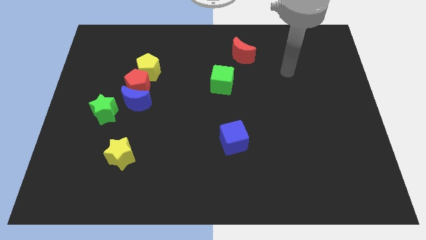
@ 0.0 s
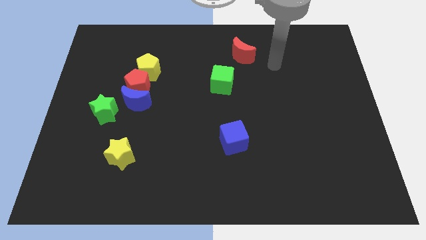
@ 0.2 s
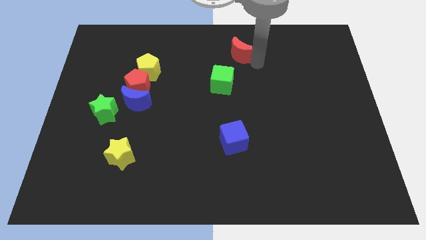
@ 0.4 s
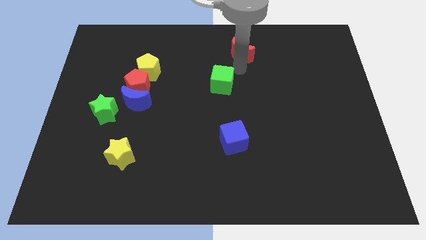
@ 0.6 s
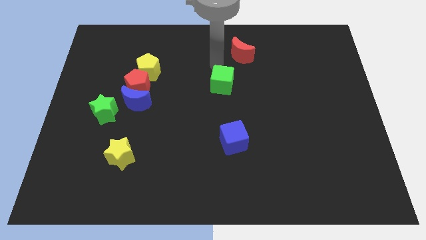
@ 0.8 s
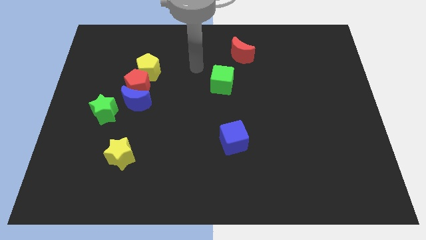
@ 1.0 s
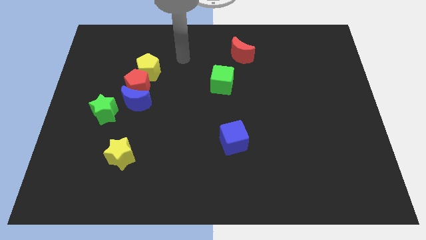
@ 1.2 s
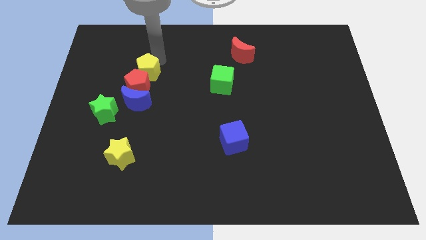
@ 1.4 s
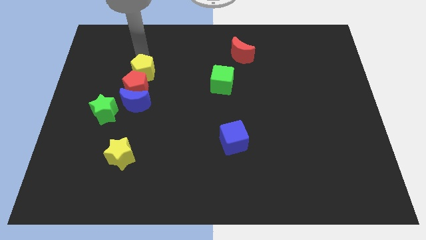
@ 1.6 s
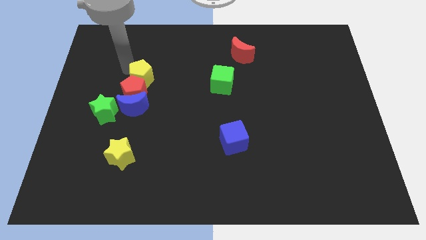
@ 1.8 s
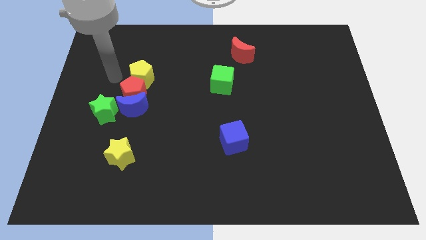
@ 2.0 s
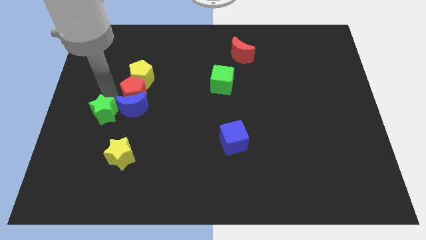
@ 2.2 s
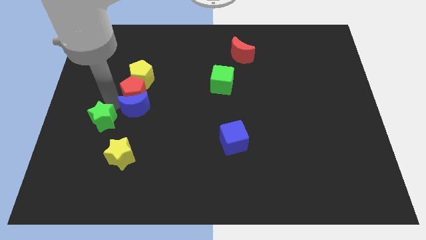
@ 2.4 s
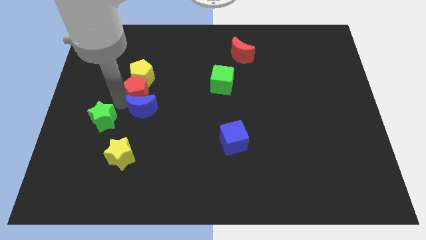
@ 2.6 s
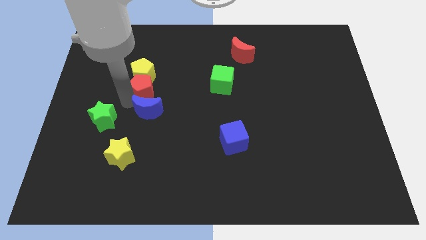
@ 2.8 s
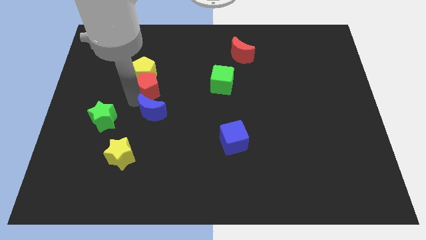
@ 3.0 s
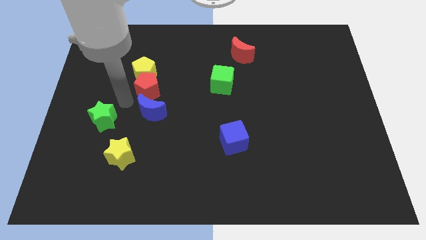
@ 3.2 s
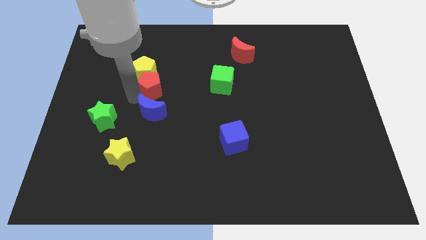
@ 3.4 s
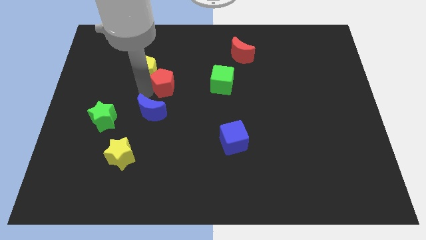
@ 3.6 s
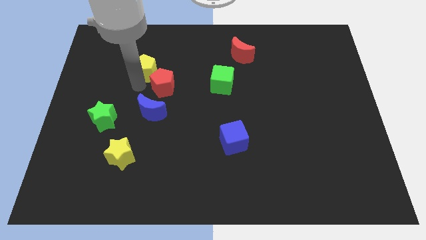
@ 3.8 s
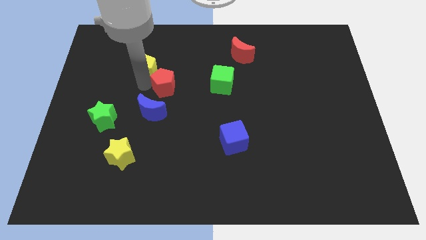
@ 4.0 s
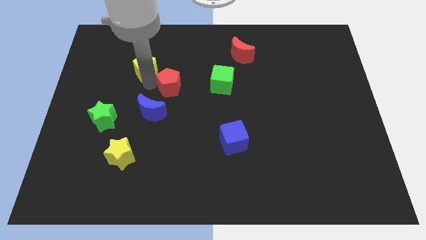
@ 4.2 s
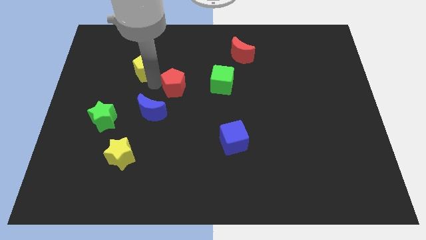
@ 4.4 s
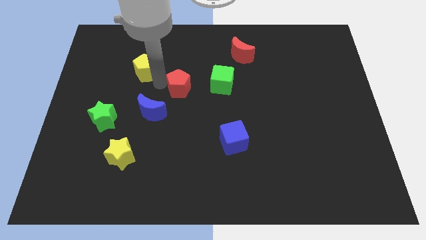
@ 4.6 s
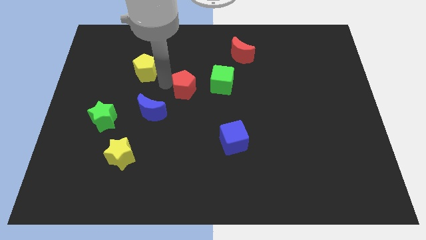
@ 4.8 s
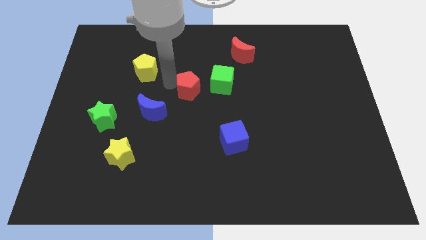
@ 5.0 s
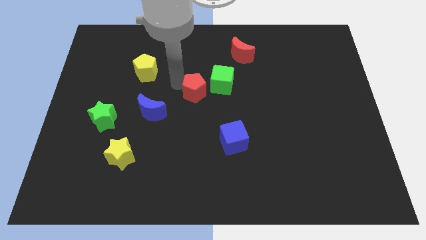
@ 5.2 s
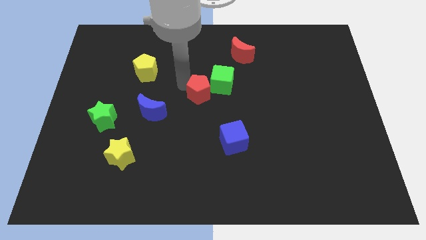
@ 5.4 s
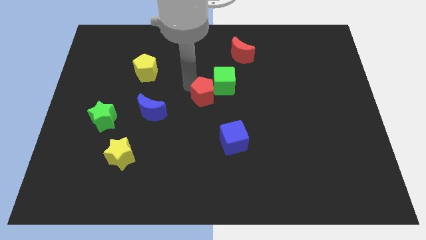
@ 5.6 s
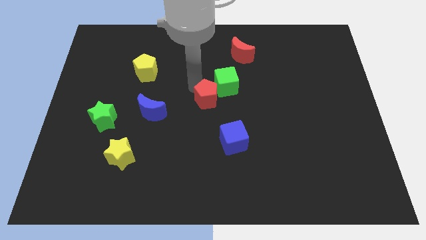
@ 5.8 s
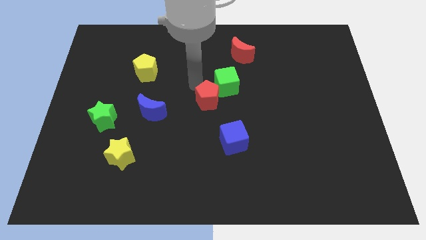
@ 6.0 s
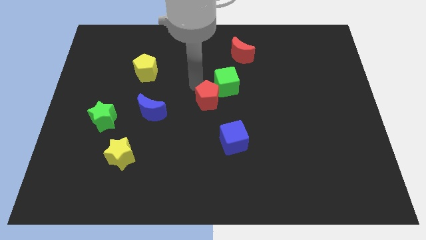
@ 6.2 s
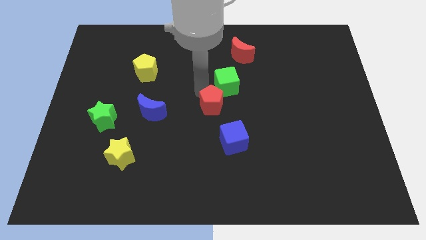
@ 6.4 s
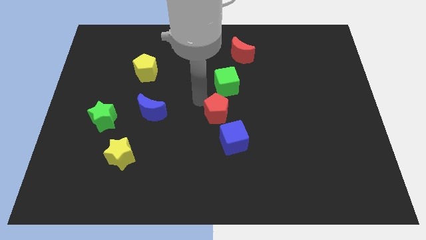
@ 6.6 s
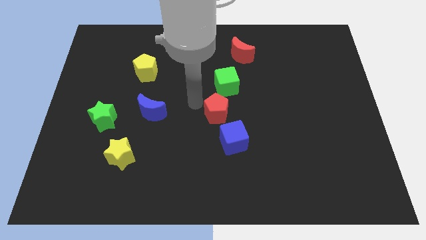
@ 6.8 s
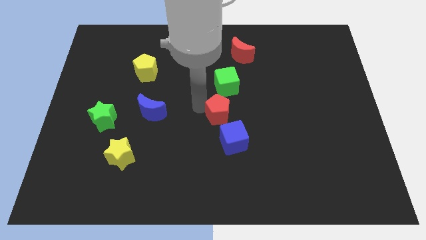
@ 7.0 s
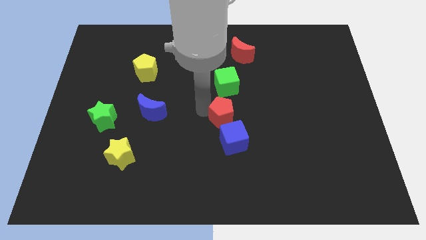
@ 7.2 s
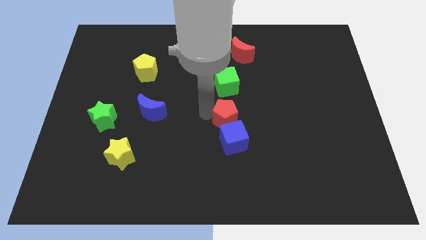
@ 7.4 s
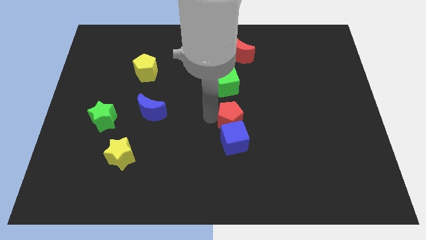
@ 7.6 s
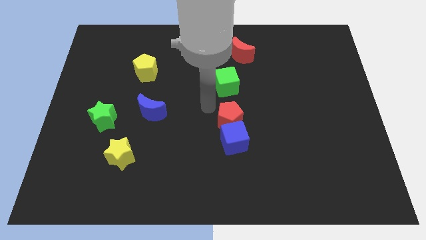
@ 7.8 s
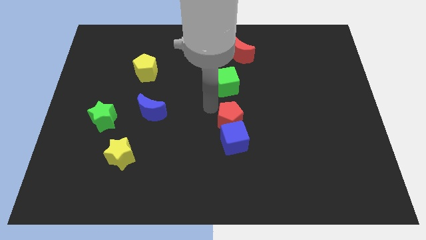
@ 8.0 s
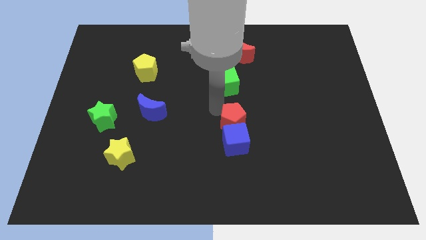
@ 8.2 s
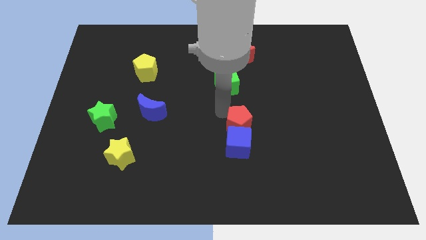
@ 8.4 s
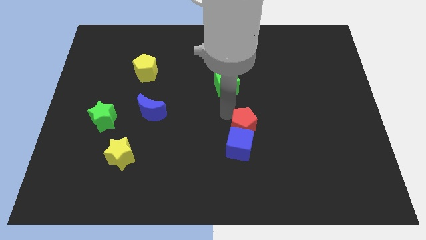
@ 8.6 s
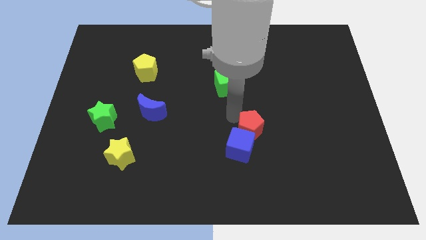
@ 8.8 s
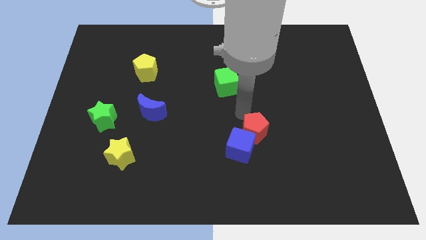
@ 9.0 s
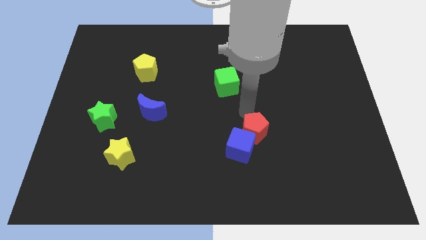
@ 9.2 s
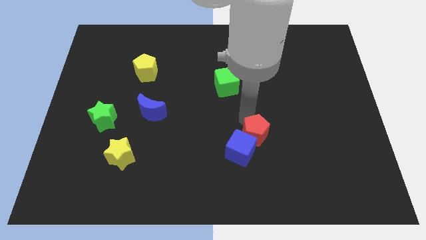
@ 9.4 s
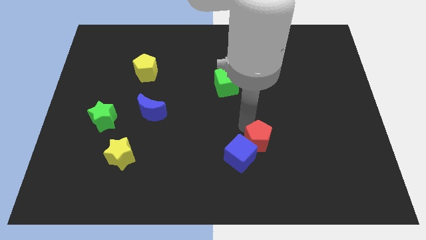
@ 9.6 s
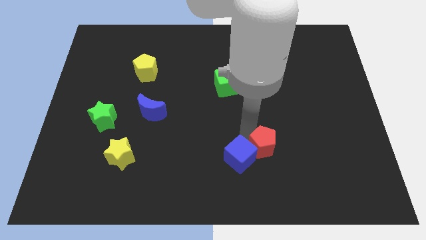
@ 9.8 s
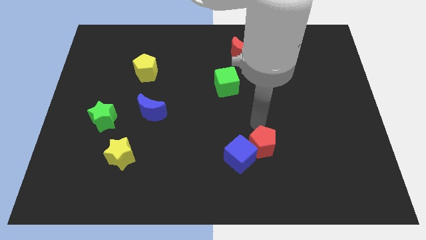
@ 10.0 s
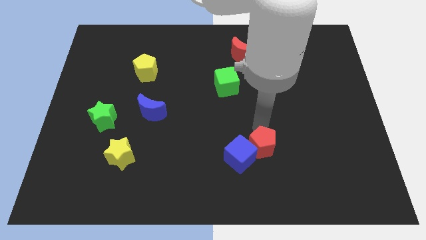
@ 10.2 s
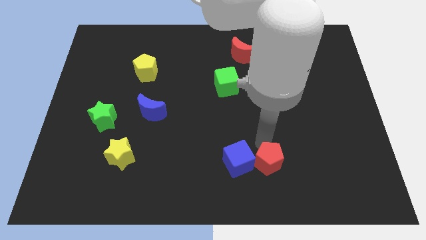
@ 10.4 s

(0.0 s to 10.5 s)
put the red pentagon to the bottom right side of the blue cube
